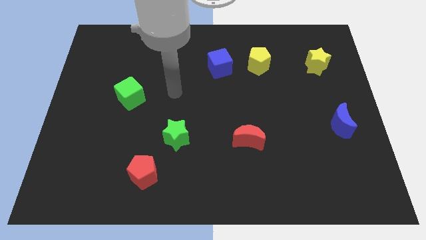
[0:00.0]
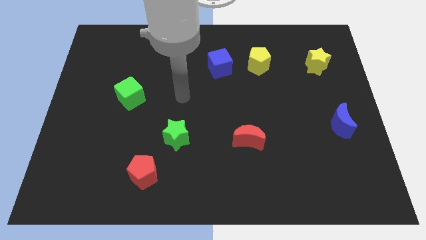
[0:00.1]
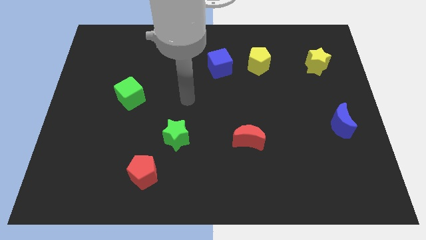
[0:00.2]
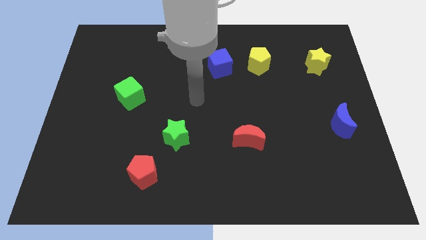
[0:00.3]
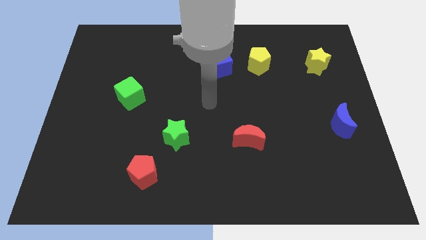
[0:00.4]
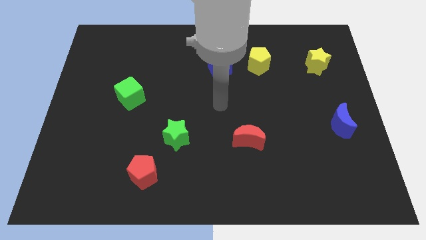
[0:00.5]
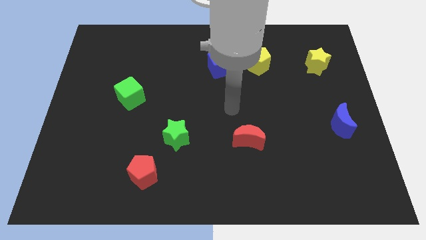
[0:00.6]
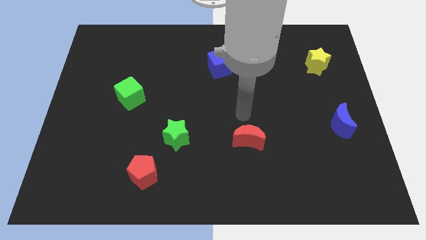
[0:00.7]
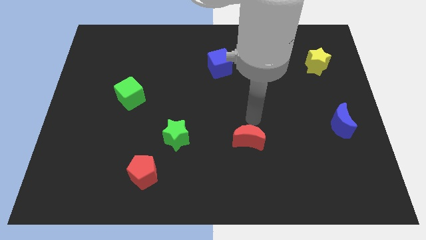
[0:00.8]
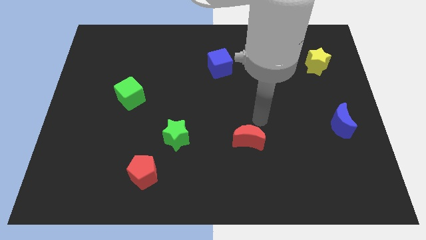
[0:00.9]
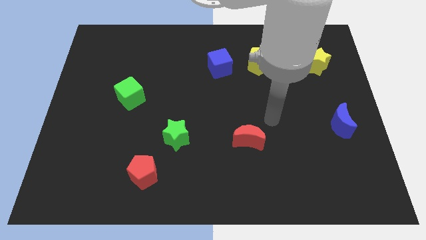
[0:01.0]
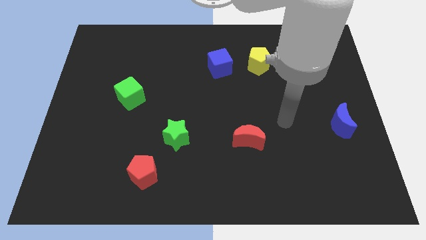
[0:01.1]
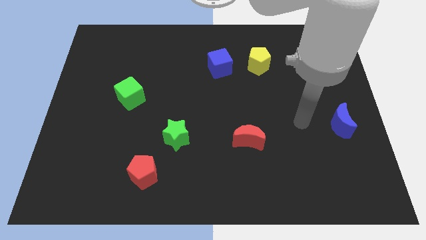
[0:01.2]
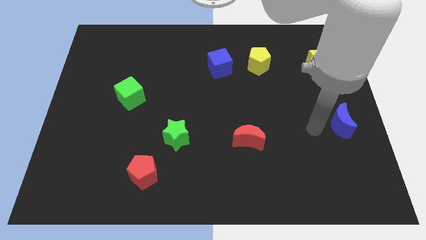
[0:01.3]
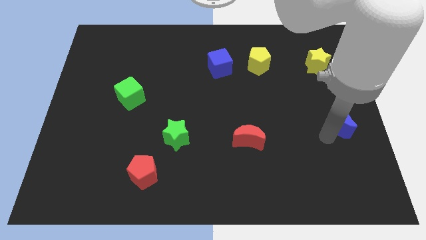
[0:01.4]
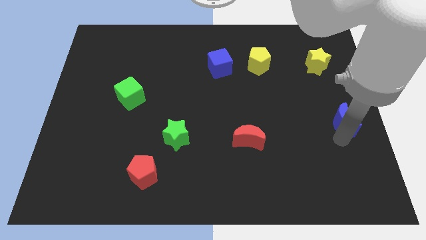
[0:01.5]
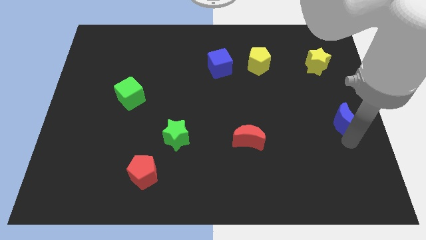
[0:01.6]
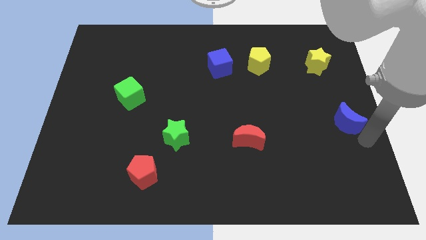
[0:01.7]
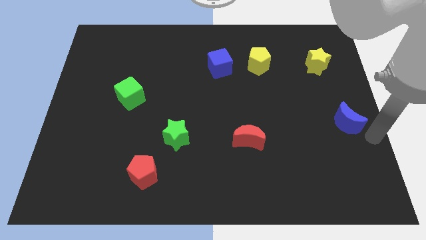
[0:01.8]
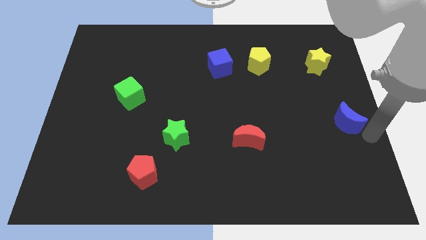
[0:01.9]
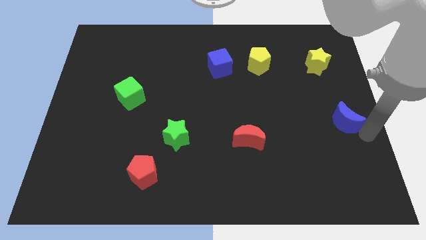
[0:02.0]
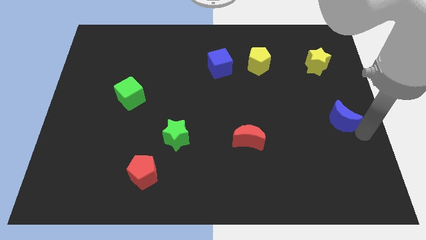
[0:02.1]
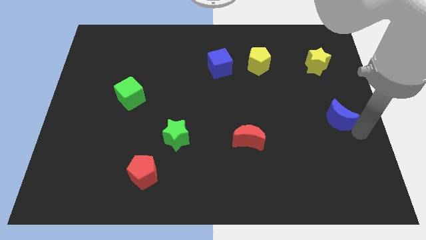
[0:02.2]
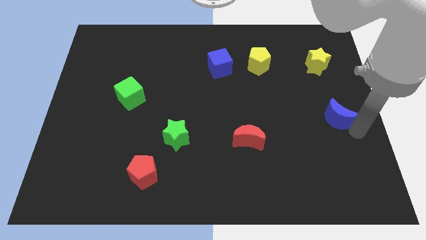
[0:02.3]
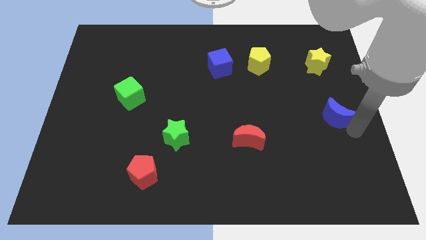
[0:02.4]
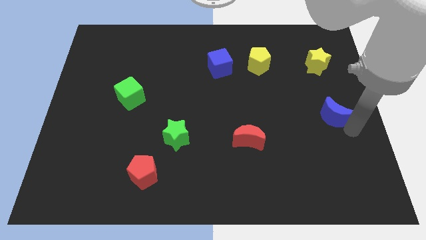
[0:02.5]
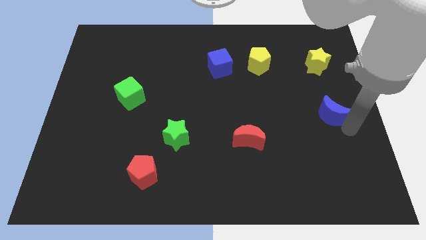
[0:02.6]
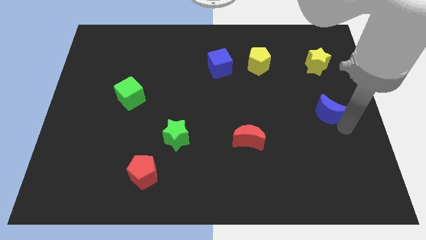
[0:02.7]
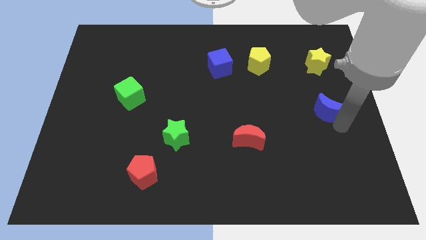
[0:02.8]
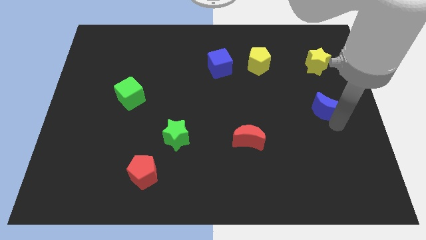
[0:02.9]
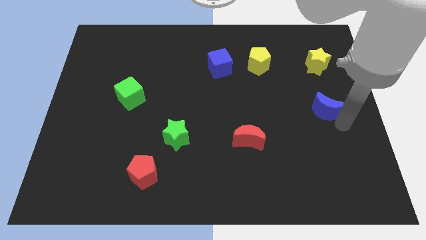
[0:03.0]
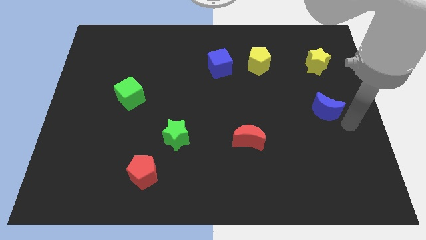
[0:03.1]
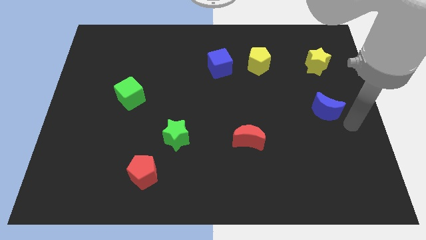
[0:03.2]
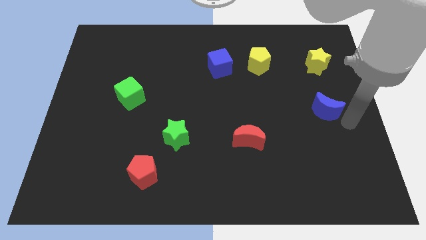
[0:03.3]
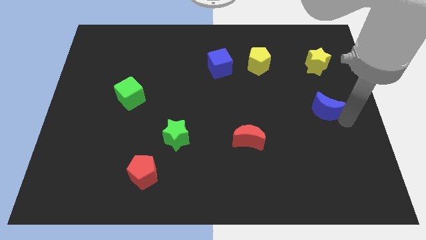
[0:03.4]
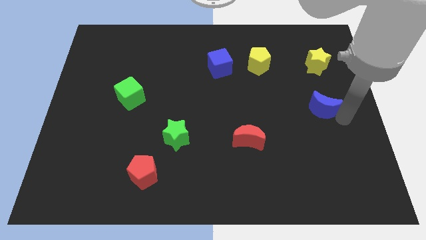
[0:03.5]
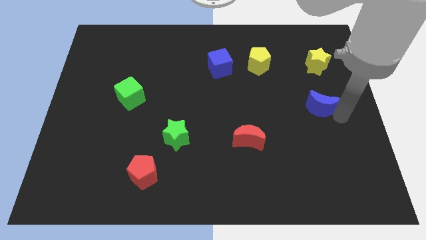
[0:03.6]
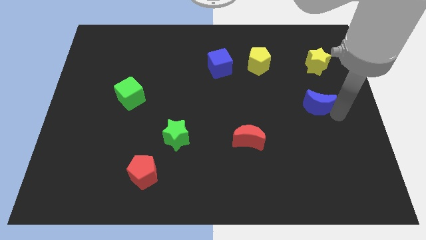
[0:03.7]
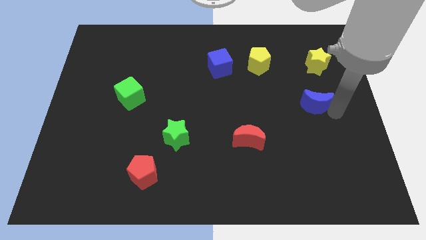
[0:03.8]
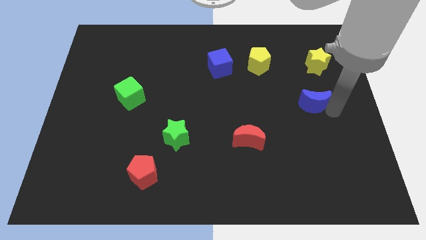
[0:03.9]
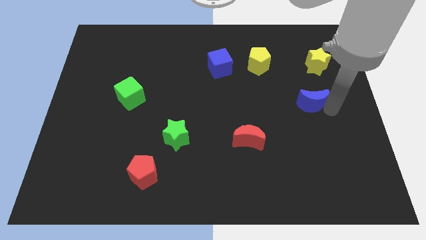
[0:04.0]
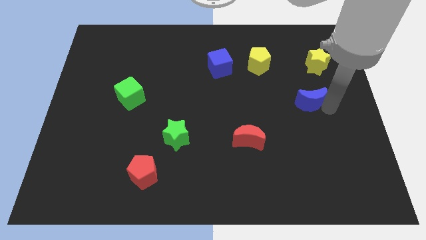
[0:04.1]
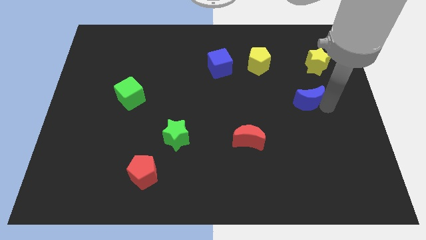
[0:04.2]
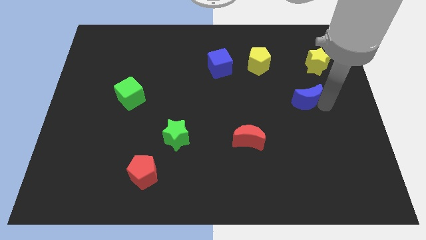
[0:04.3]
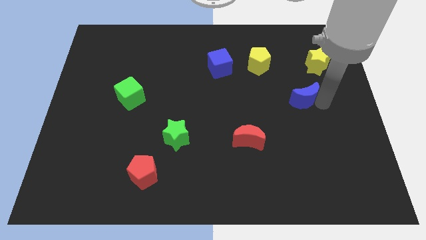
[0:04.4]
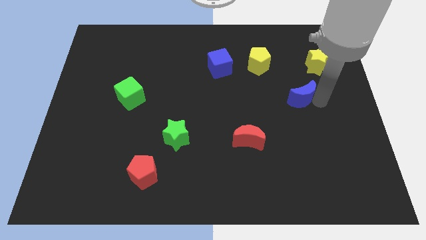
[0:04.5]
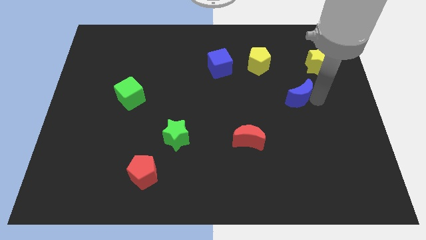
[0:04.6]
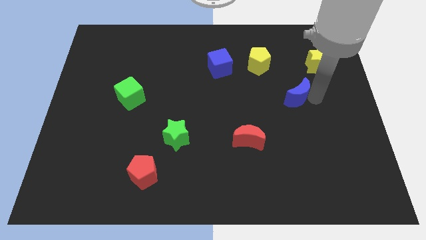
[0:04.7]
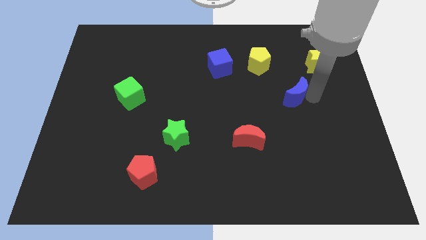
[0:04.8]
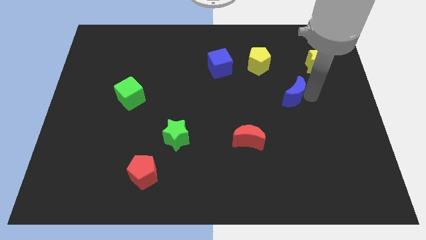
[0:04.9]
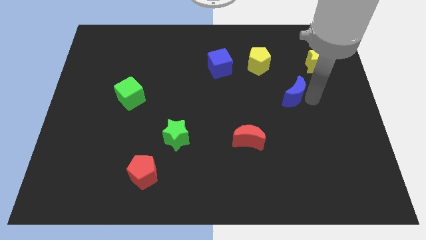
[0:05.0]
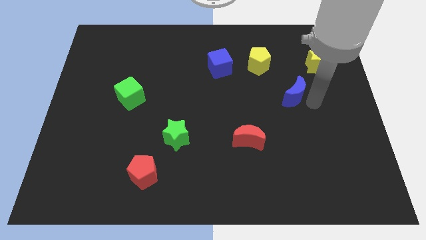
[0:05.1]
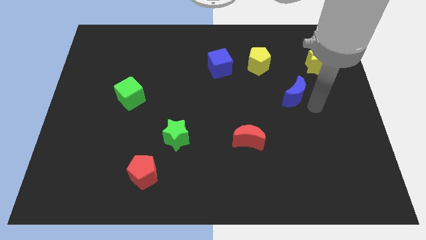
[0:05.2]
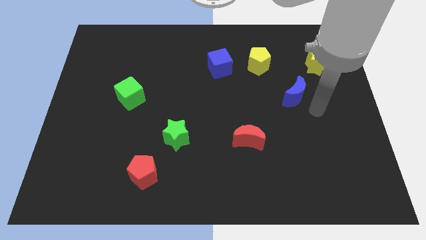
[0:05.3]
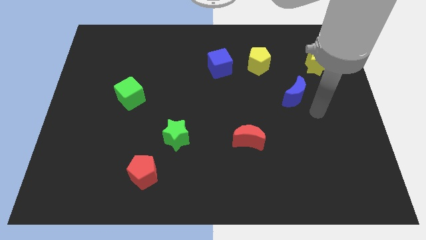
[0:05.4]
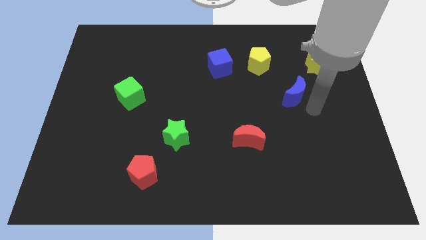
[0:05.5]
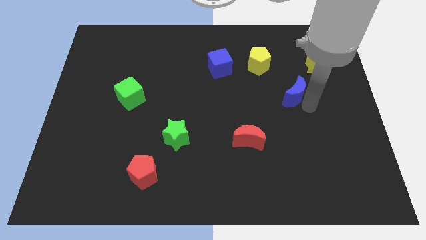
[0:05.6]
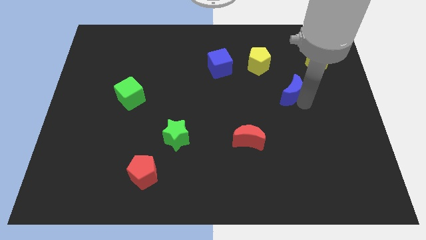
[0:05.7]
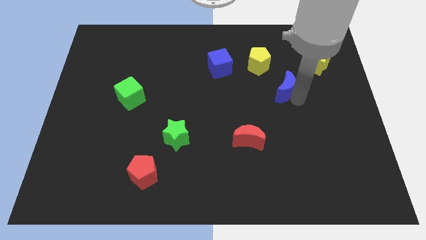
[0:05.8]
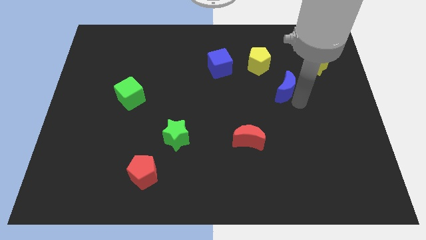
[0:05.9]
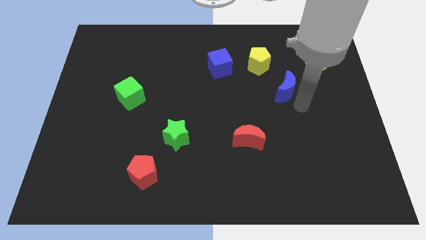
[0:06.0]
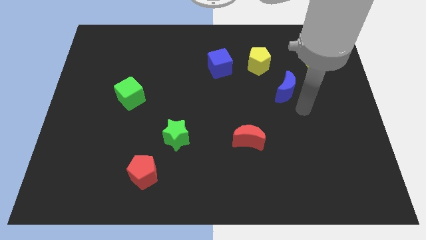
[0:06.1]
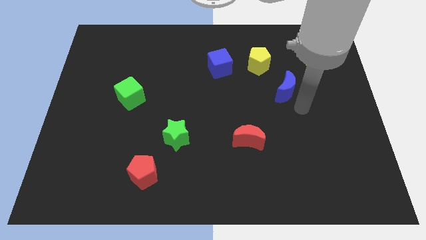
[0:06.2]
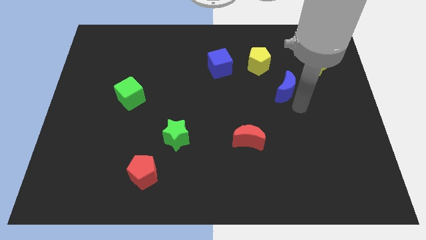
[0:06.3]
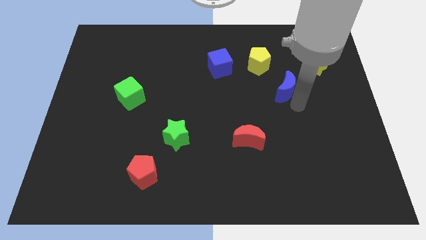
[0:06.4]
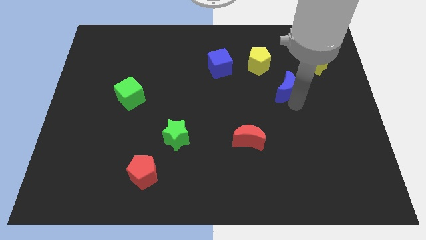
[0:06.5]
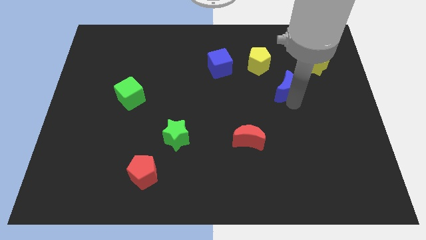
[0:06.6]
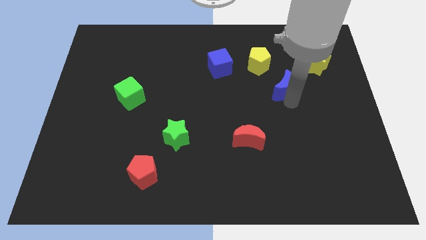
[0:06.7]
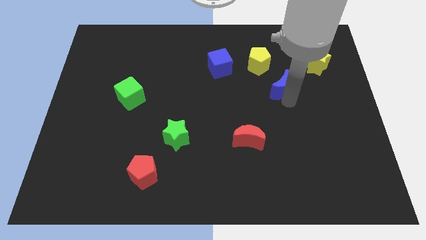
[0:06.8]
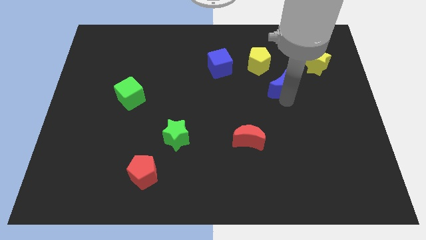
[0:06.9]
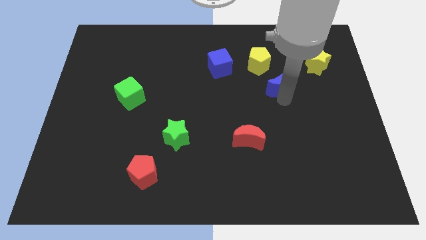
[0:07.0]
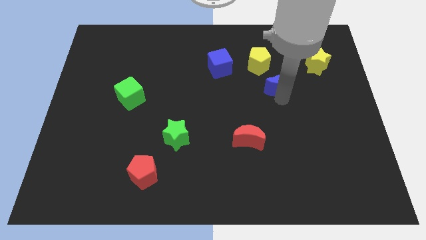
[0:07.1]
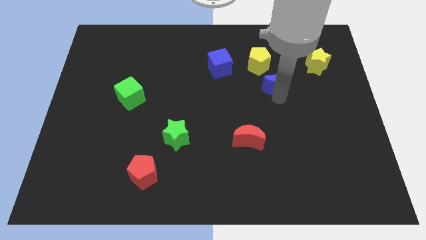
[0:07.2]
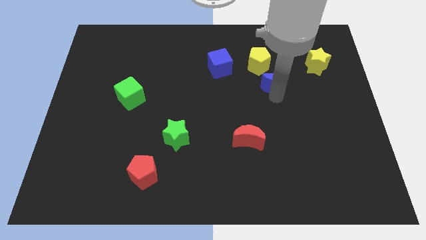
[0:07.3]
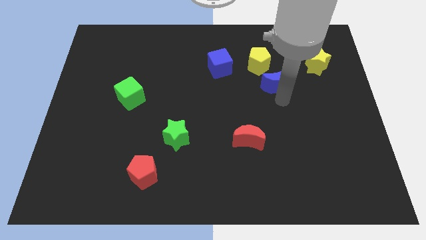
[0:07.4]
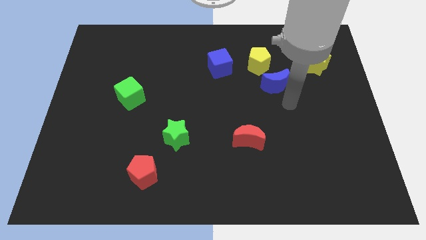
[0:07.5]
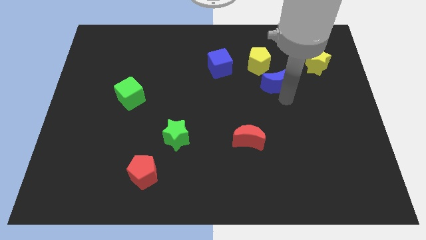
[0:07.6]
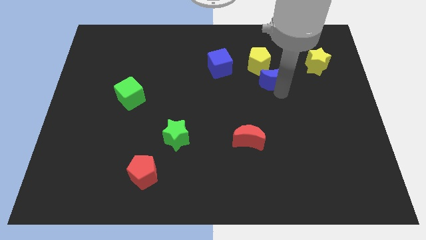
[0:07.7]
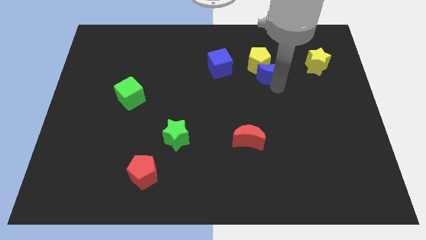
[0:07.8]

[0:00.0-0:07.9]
move the blue moon towards the yellow pentagon
